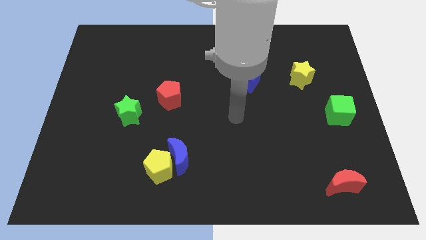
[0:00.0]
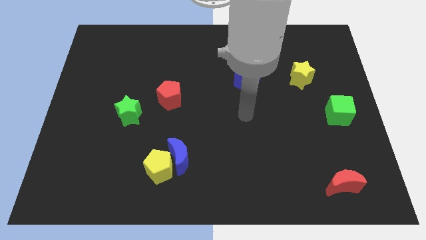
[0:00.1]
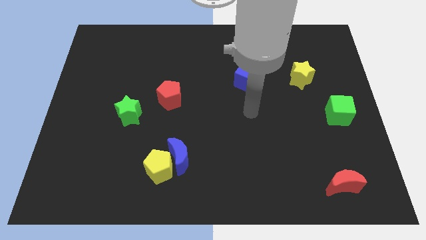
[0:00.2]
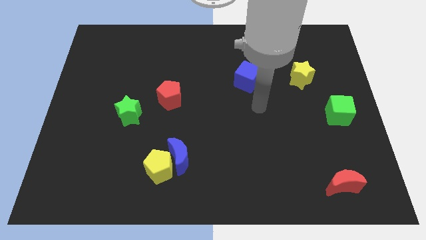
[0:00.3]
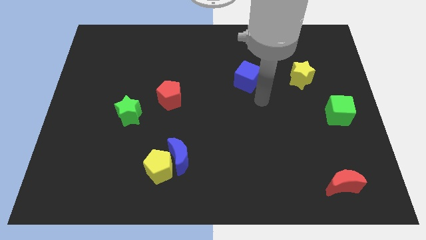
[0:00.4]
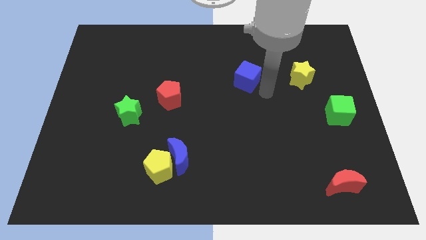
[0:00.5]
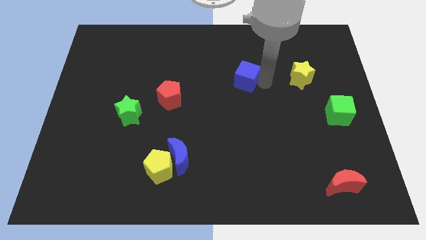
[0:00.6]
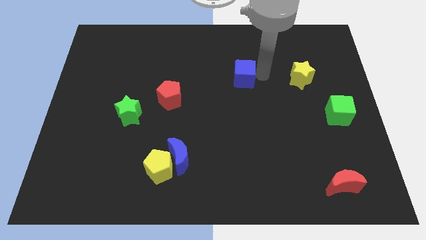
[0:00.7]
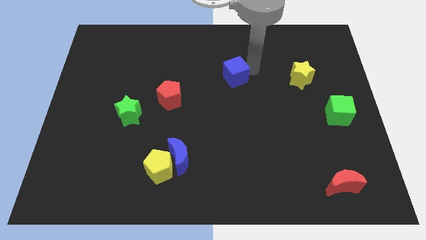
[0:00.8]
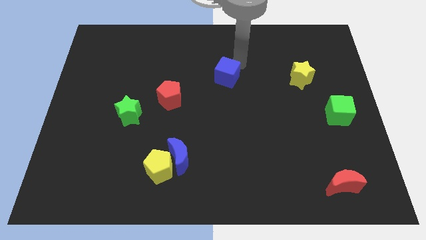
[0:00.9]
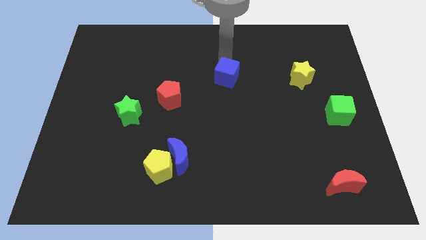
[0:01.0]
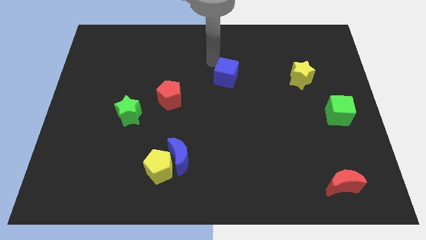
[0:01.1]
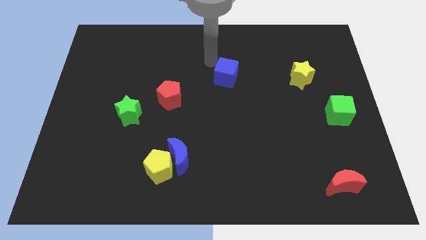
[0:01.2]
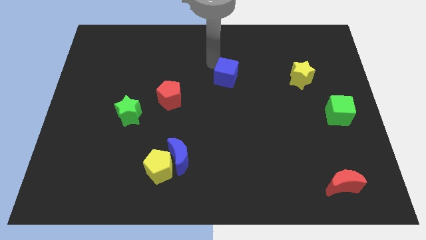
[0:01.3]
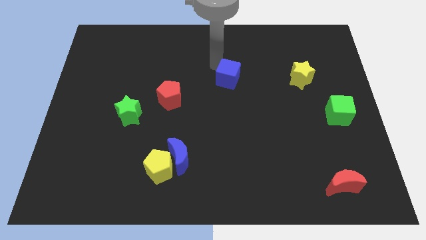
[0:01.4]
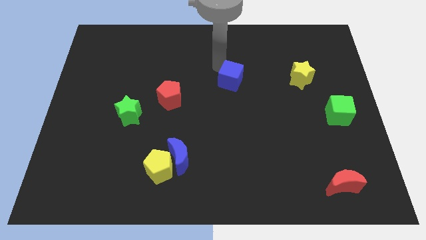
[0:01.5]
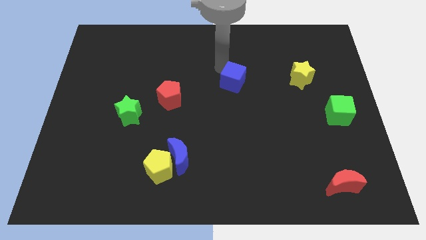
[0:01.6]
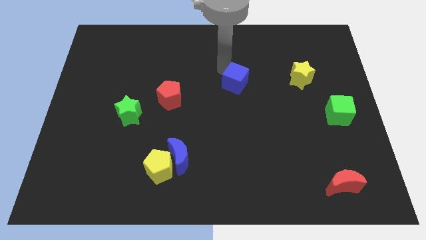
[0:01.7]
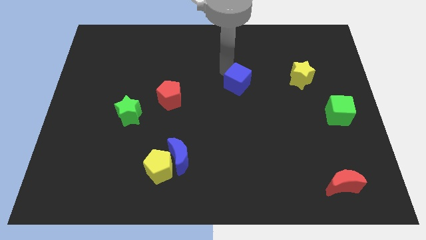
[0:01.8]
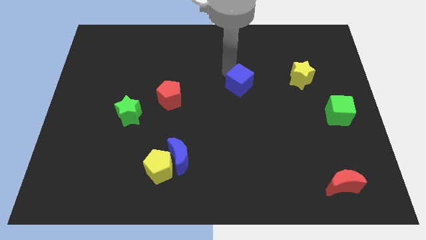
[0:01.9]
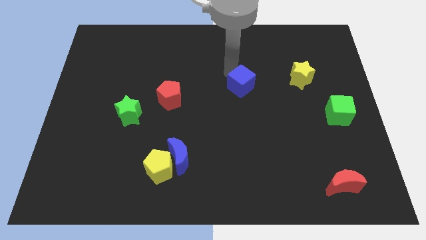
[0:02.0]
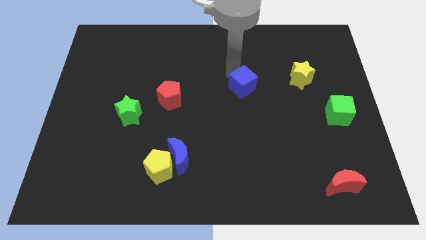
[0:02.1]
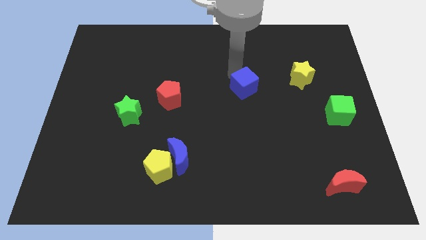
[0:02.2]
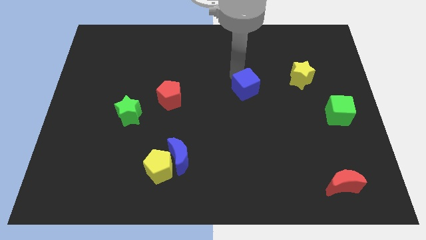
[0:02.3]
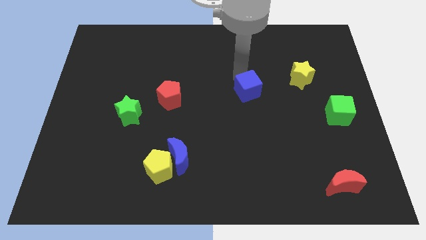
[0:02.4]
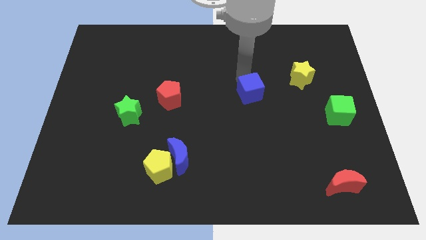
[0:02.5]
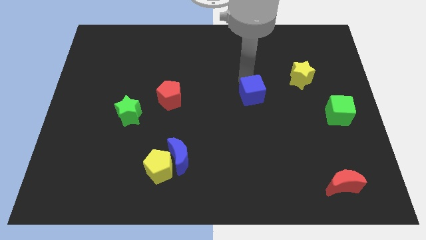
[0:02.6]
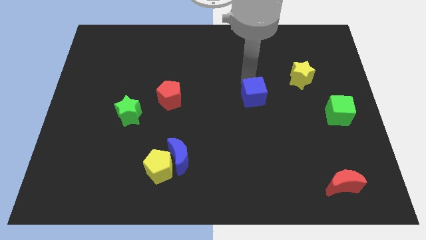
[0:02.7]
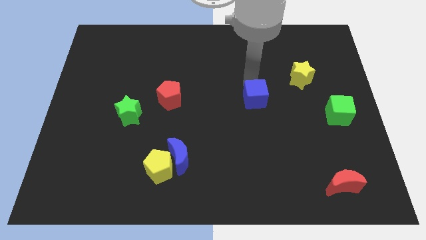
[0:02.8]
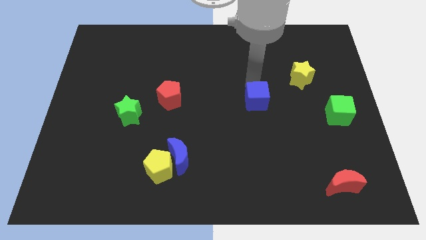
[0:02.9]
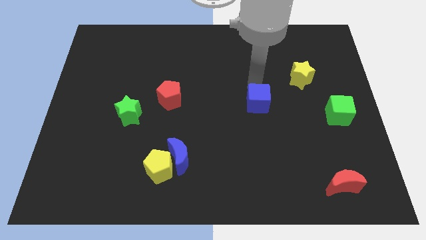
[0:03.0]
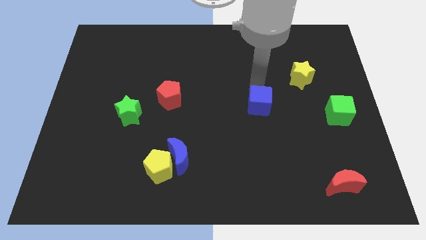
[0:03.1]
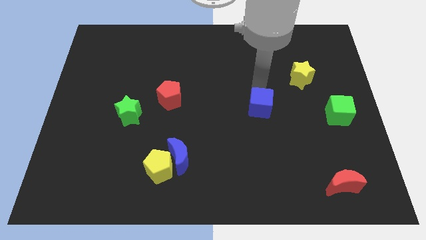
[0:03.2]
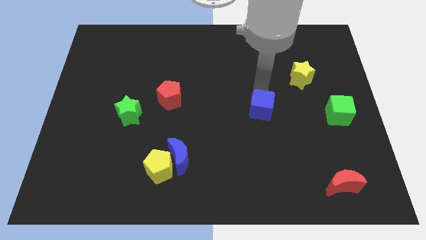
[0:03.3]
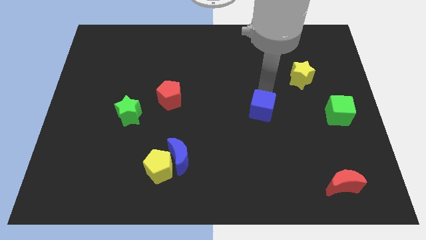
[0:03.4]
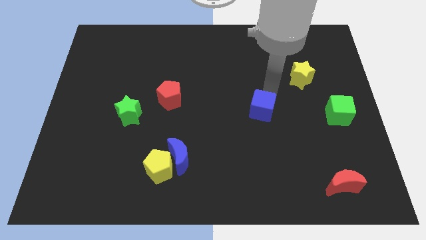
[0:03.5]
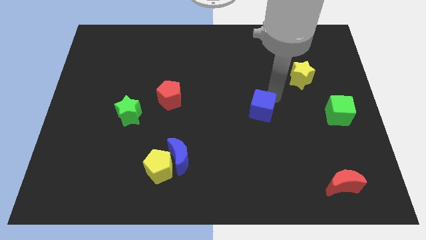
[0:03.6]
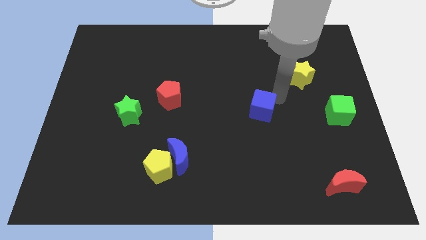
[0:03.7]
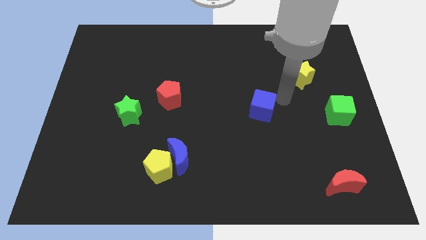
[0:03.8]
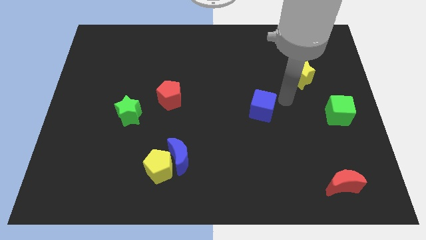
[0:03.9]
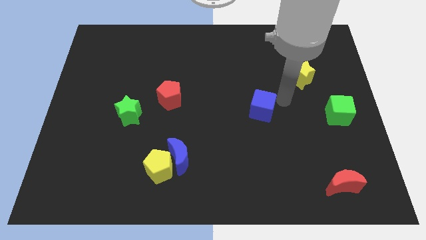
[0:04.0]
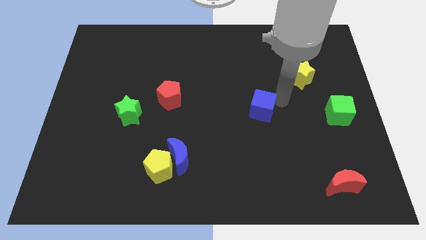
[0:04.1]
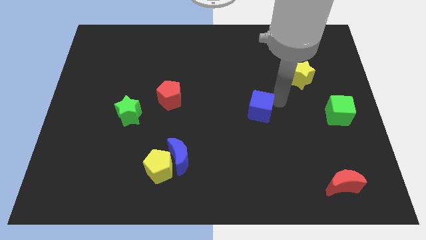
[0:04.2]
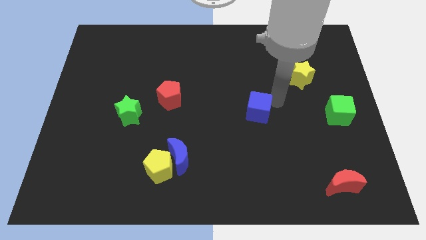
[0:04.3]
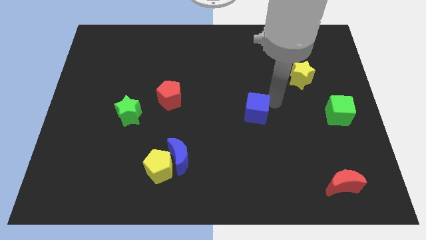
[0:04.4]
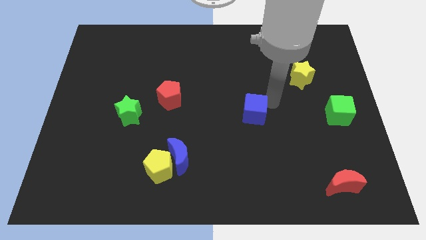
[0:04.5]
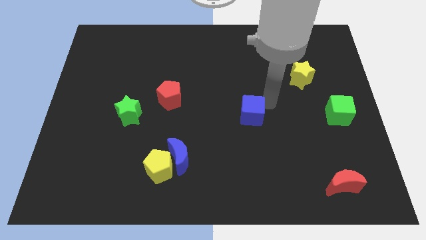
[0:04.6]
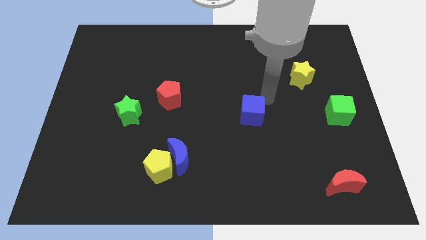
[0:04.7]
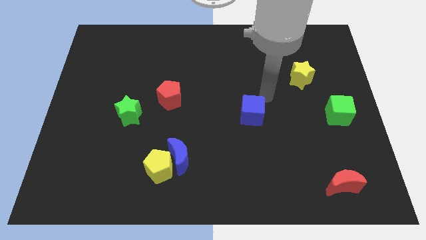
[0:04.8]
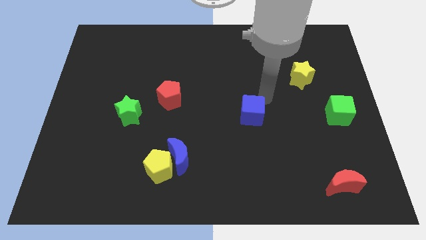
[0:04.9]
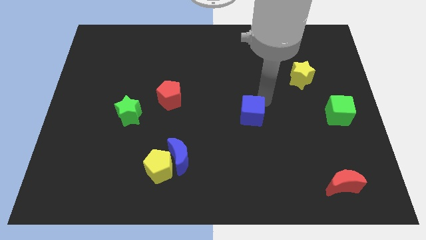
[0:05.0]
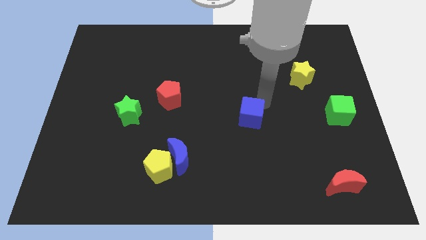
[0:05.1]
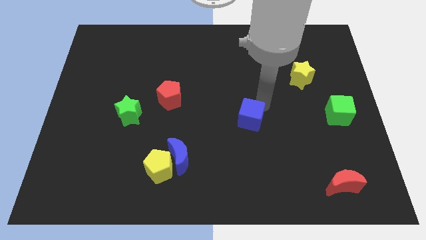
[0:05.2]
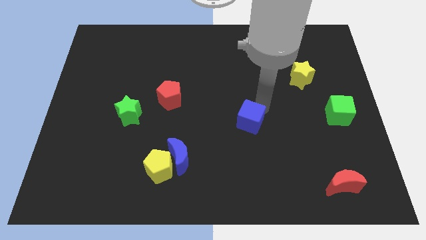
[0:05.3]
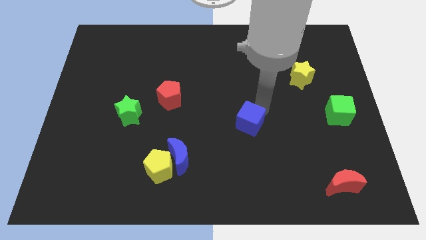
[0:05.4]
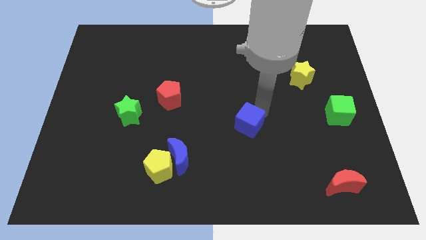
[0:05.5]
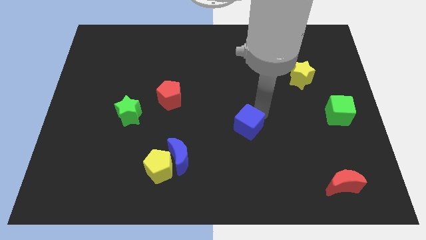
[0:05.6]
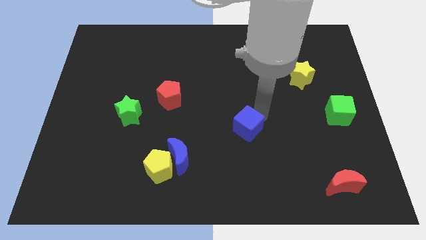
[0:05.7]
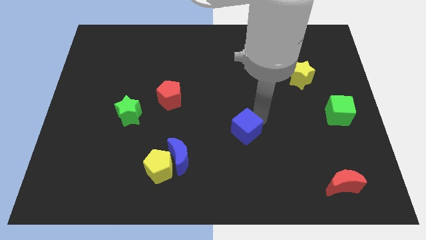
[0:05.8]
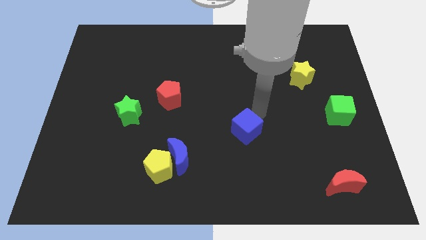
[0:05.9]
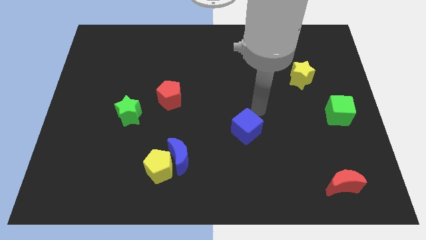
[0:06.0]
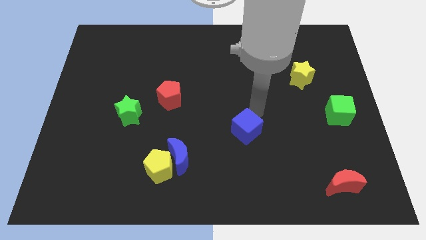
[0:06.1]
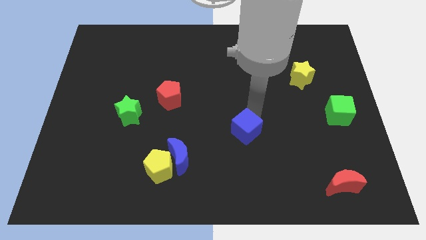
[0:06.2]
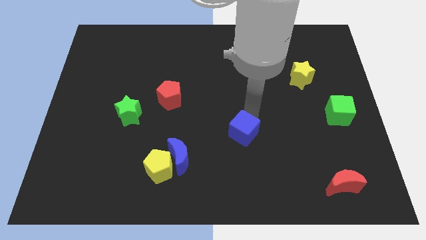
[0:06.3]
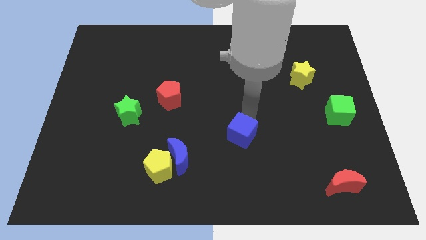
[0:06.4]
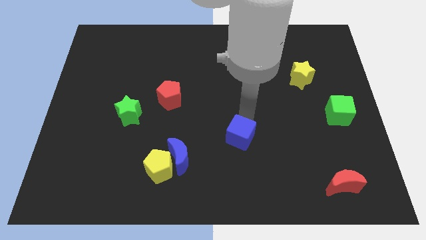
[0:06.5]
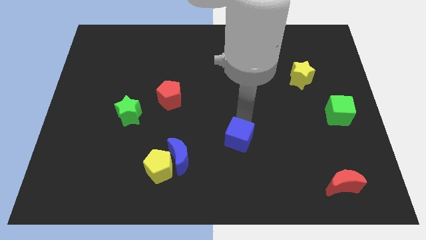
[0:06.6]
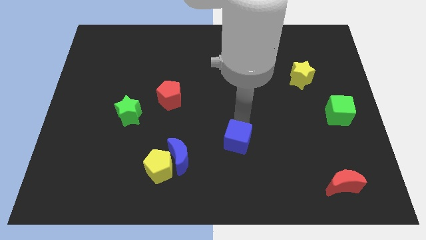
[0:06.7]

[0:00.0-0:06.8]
move the blue cube just right of the blue moon
